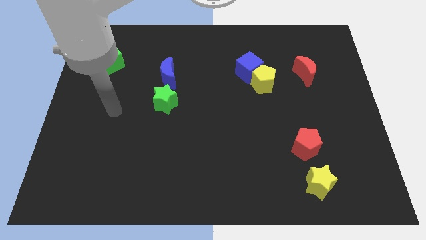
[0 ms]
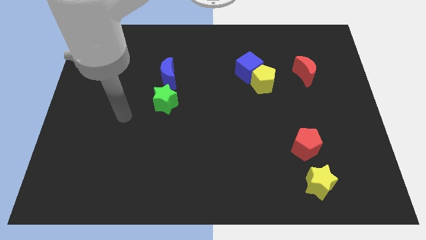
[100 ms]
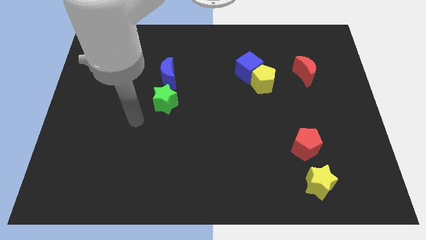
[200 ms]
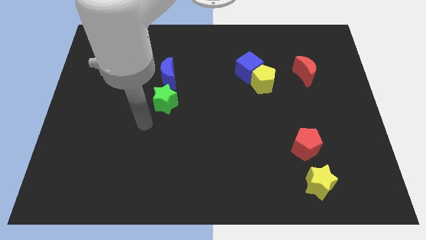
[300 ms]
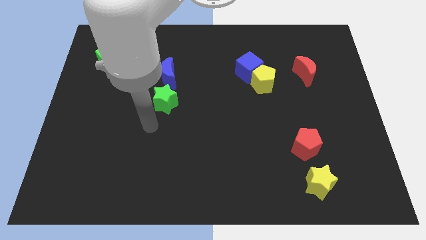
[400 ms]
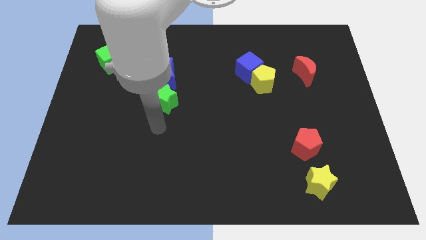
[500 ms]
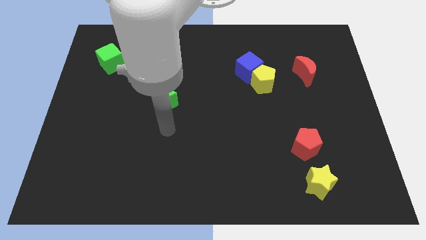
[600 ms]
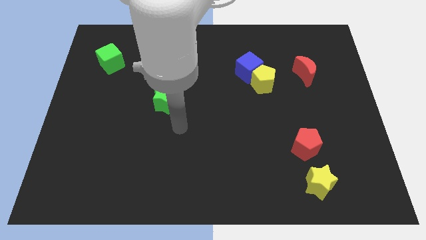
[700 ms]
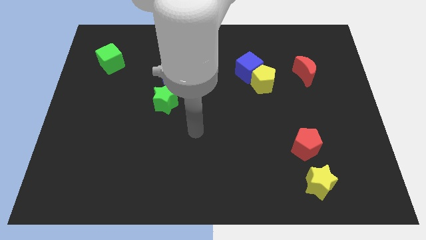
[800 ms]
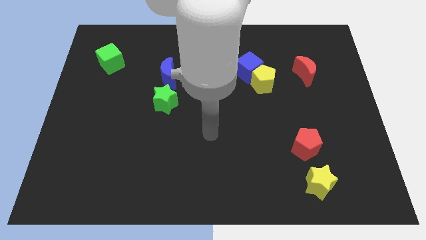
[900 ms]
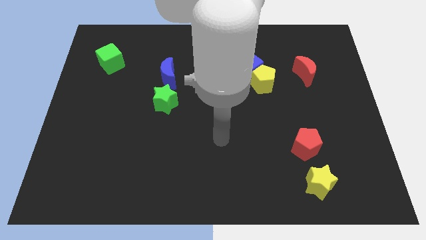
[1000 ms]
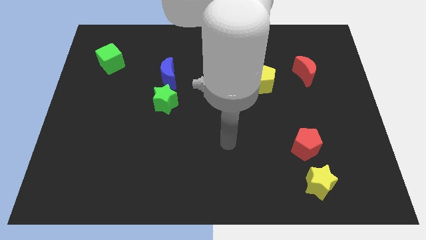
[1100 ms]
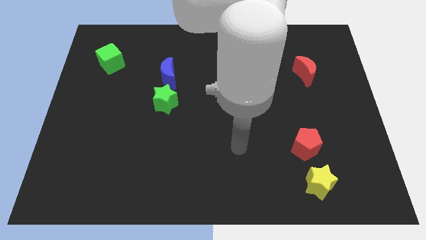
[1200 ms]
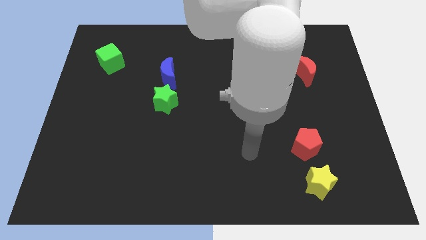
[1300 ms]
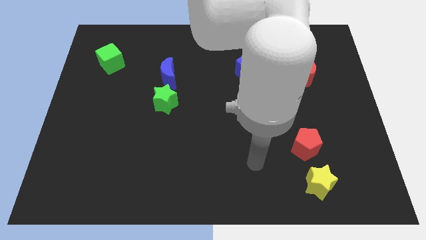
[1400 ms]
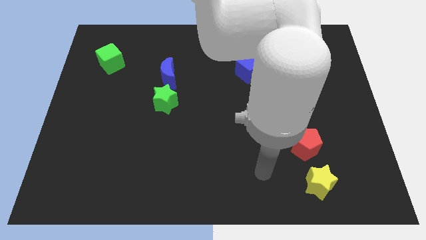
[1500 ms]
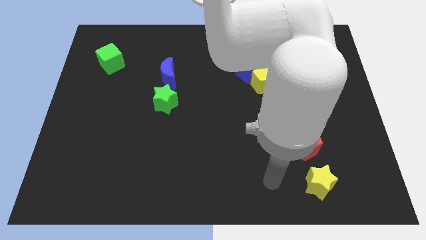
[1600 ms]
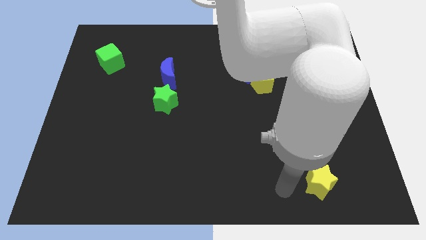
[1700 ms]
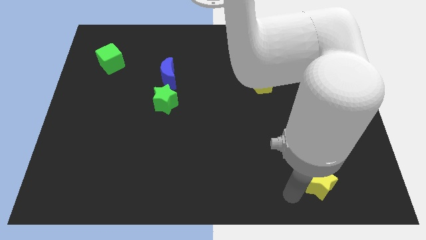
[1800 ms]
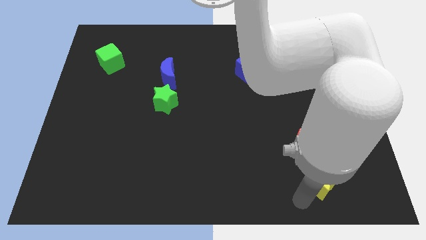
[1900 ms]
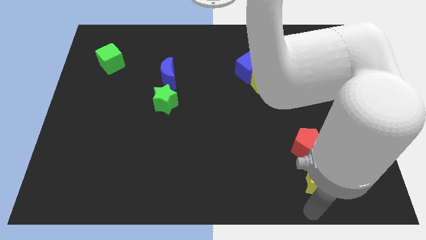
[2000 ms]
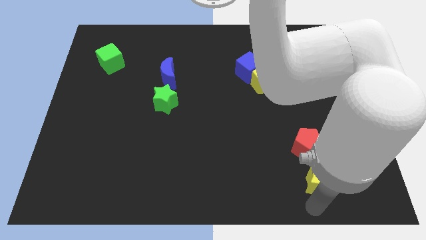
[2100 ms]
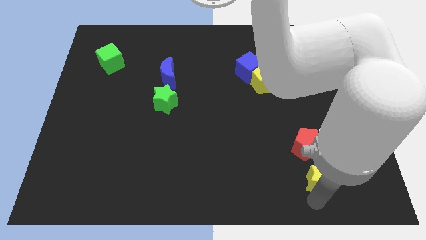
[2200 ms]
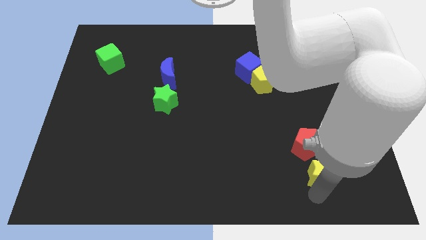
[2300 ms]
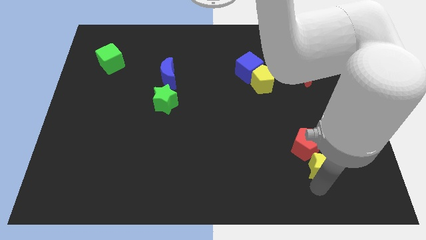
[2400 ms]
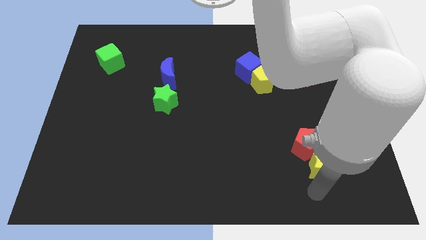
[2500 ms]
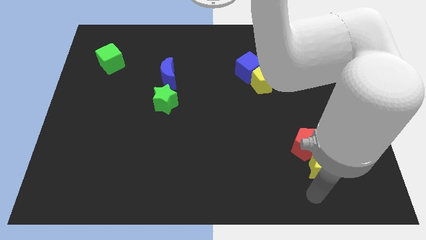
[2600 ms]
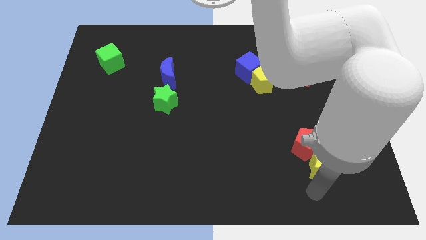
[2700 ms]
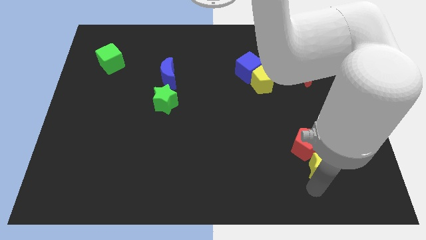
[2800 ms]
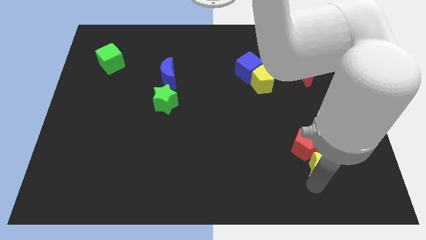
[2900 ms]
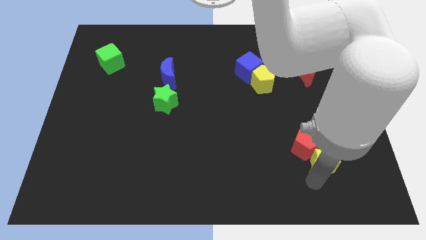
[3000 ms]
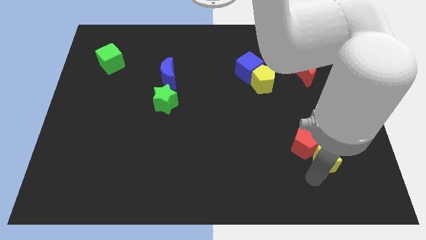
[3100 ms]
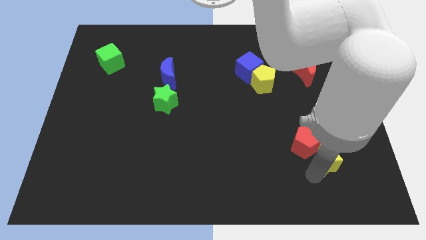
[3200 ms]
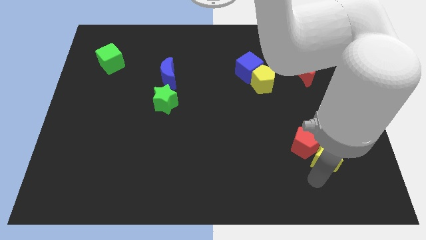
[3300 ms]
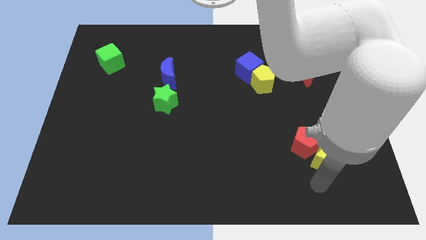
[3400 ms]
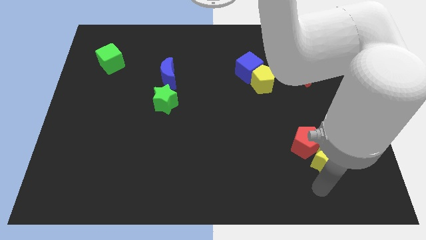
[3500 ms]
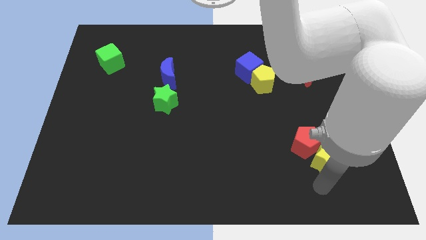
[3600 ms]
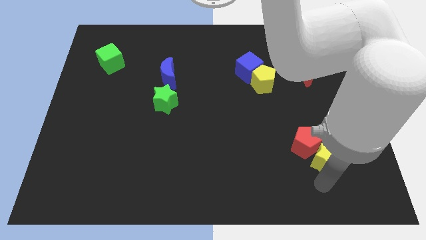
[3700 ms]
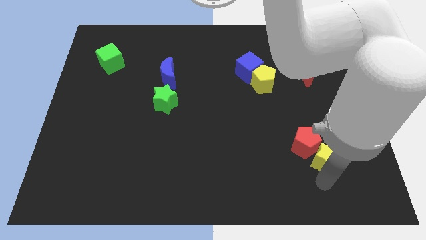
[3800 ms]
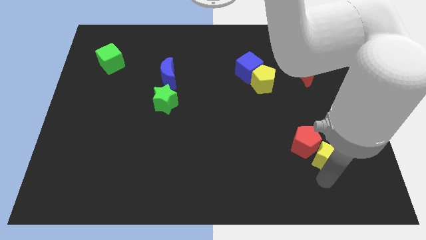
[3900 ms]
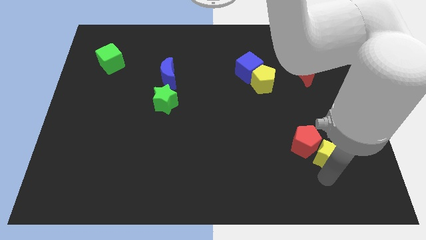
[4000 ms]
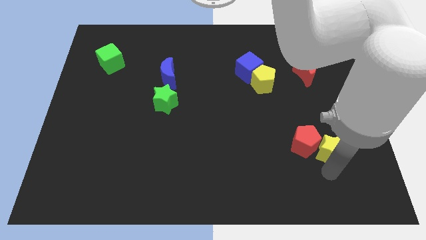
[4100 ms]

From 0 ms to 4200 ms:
move the yellow star a bit upwards

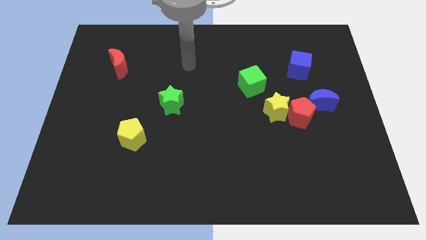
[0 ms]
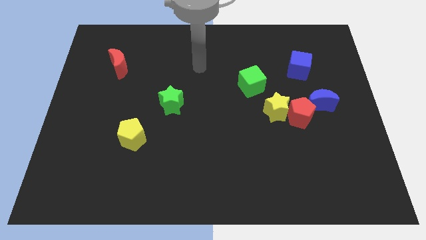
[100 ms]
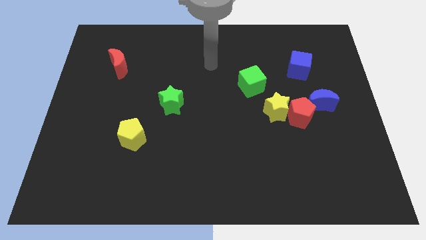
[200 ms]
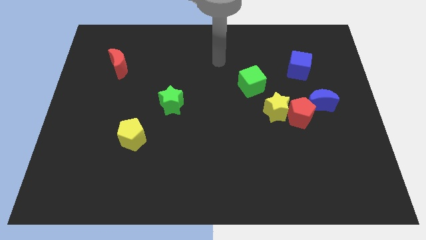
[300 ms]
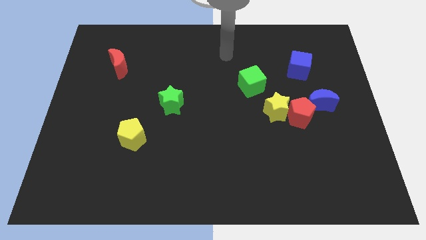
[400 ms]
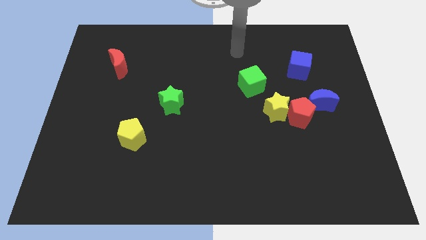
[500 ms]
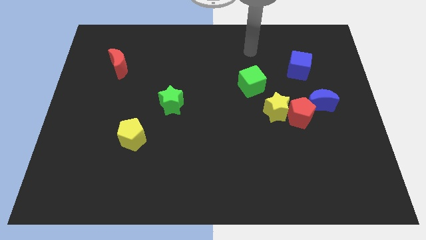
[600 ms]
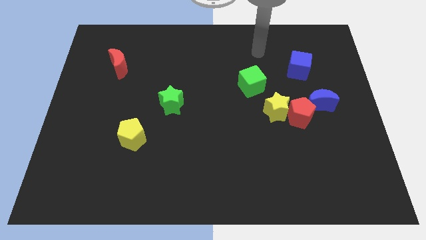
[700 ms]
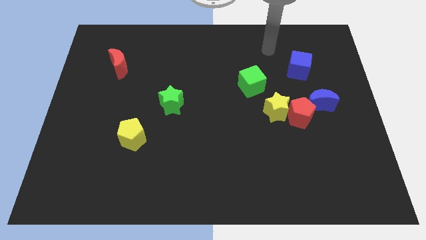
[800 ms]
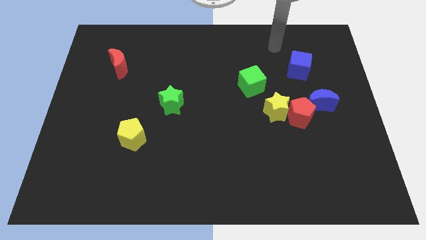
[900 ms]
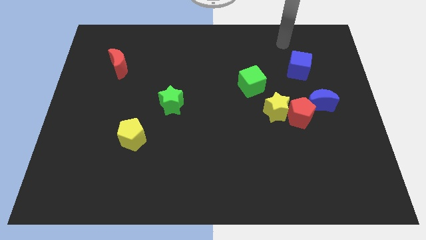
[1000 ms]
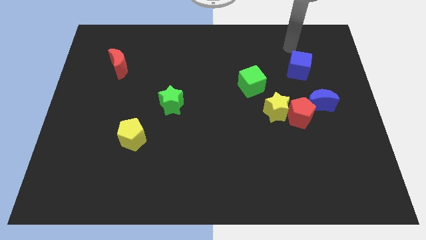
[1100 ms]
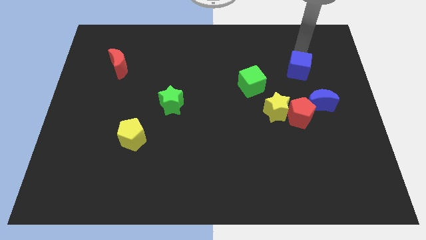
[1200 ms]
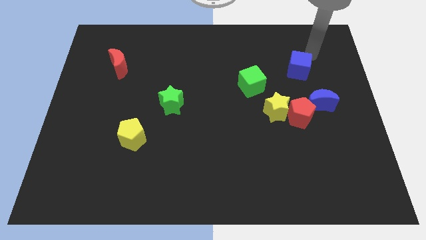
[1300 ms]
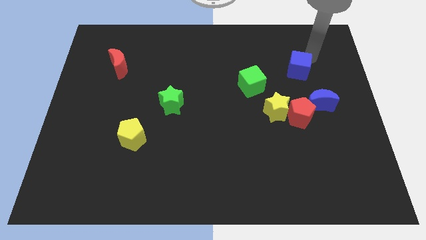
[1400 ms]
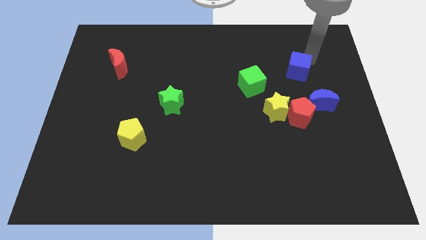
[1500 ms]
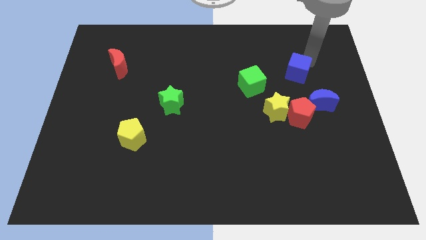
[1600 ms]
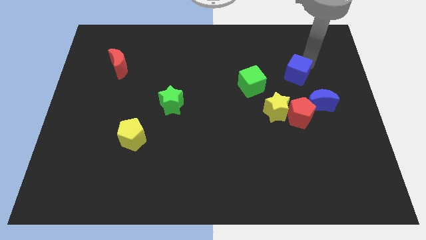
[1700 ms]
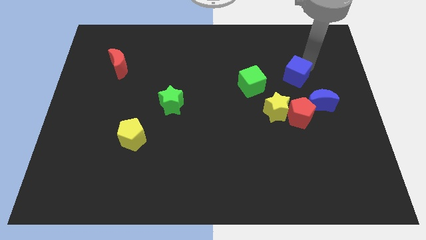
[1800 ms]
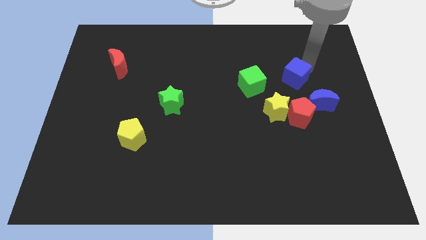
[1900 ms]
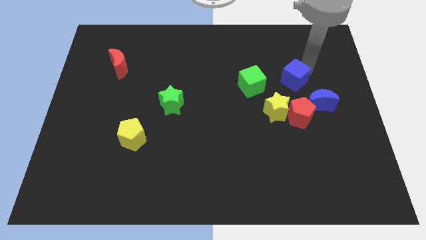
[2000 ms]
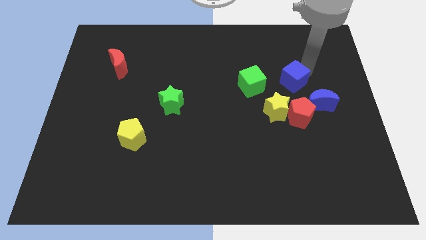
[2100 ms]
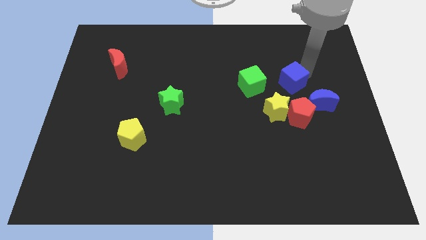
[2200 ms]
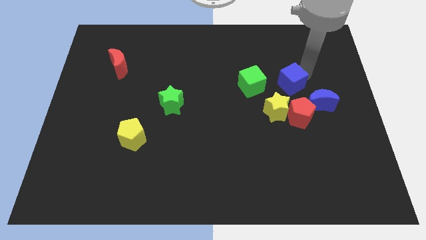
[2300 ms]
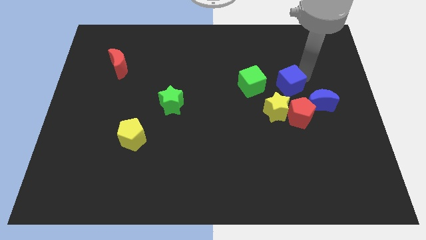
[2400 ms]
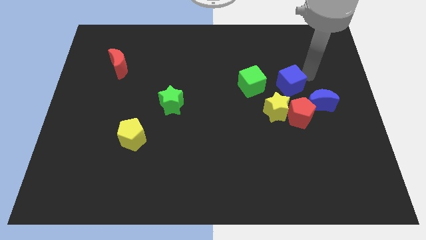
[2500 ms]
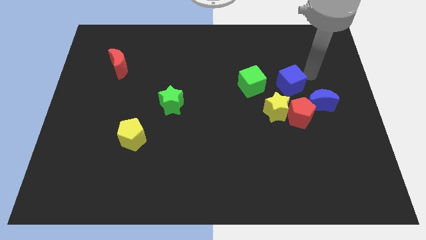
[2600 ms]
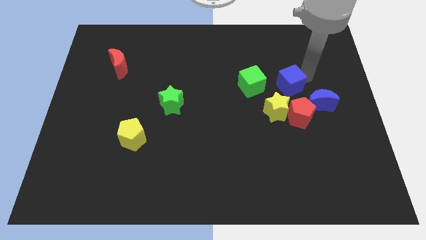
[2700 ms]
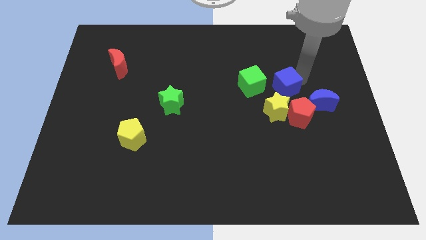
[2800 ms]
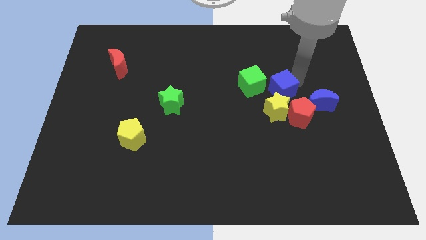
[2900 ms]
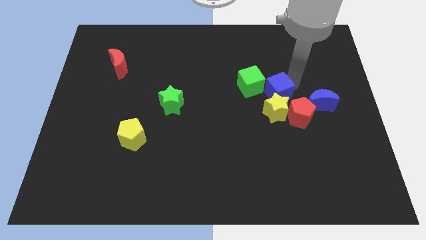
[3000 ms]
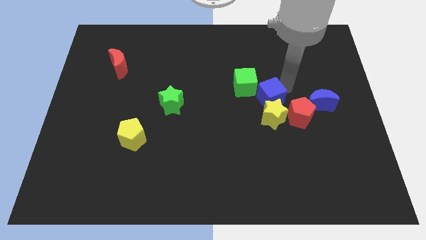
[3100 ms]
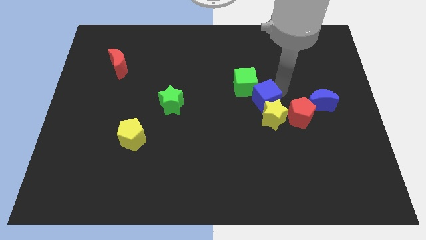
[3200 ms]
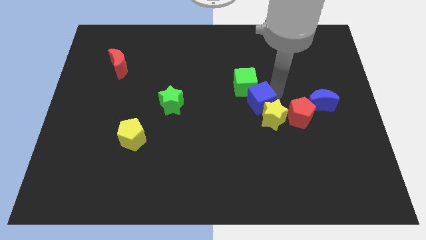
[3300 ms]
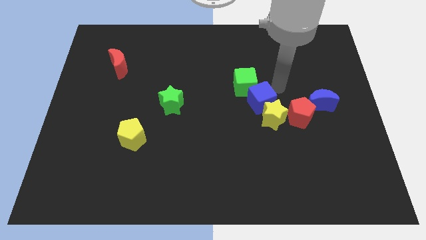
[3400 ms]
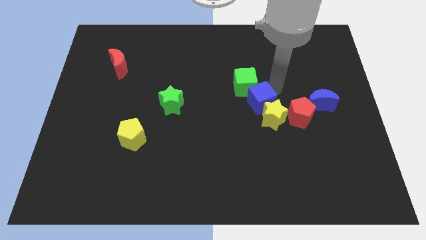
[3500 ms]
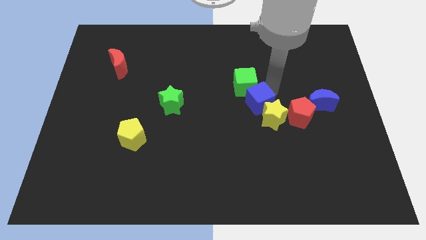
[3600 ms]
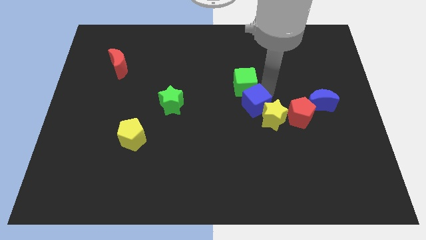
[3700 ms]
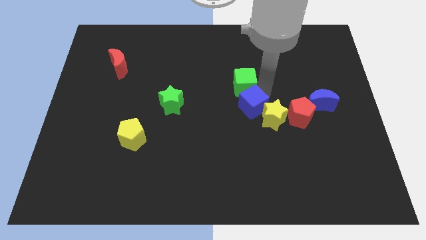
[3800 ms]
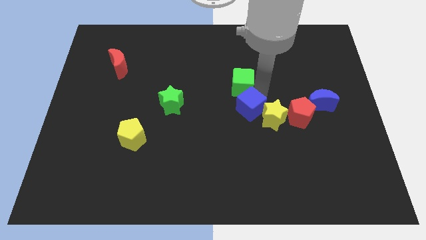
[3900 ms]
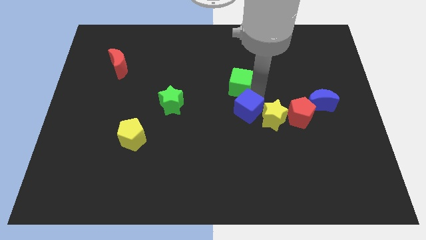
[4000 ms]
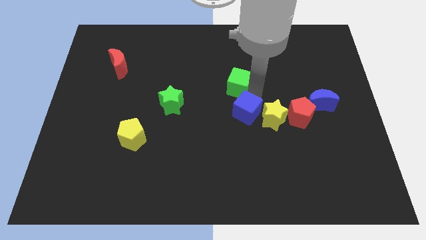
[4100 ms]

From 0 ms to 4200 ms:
move the blue cube downwards and left

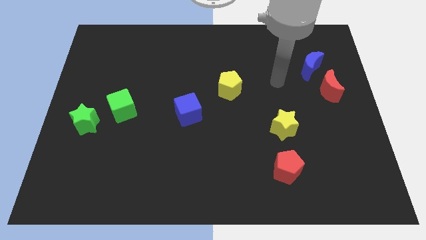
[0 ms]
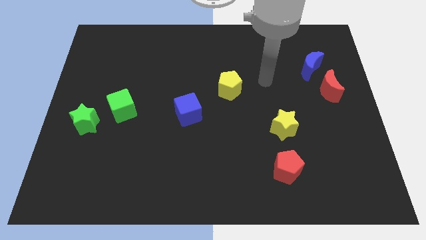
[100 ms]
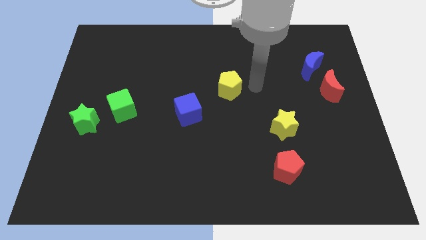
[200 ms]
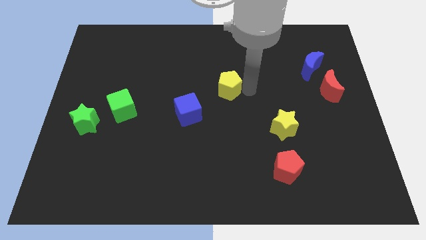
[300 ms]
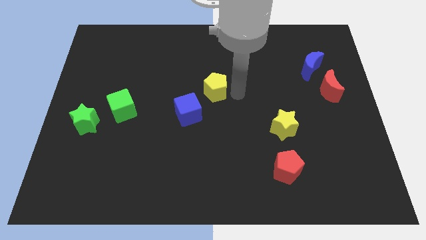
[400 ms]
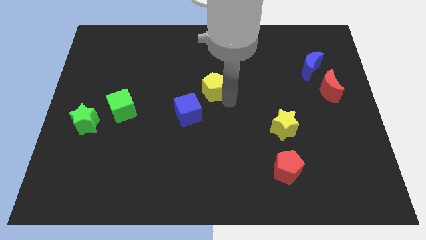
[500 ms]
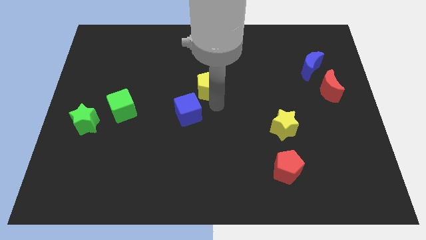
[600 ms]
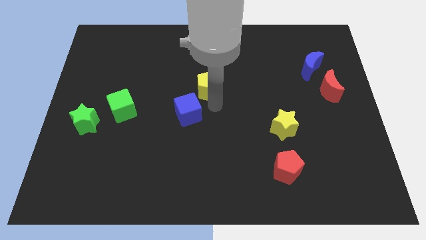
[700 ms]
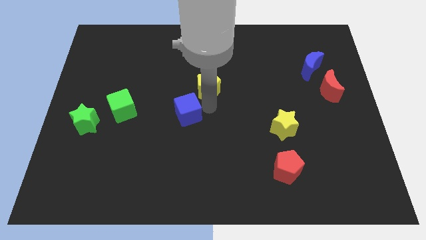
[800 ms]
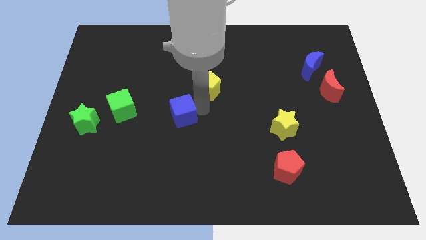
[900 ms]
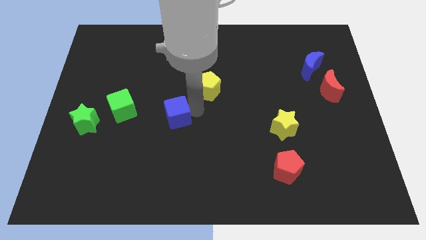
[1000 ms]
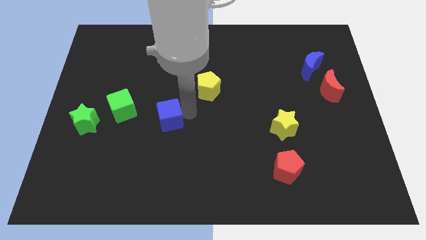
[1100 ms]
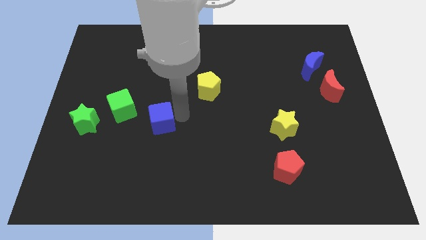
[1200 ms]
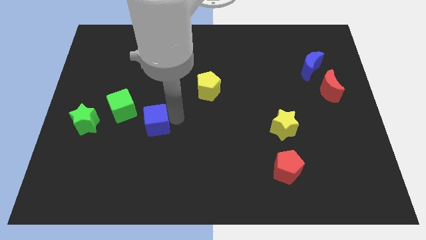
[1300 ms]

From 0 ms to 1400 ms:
slightly slide the blue cube left
